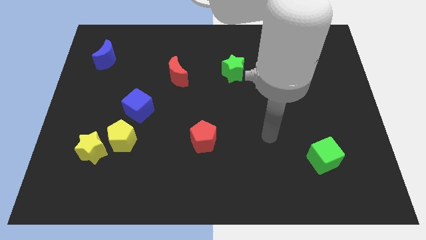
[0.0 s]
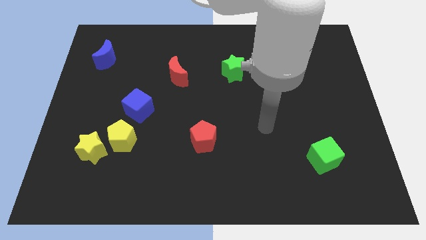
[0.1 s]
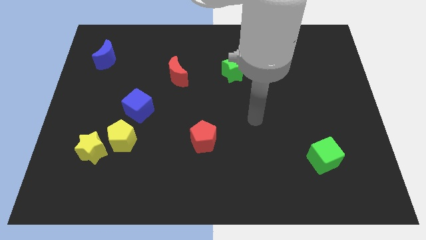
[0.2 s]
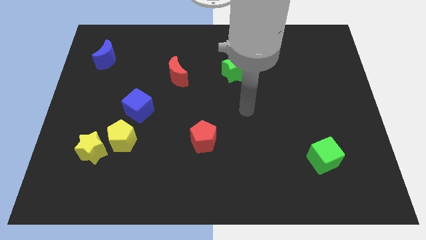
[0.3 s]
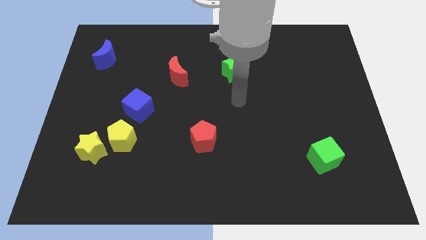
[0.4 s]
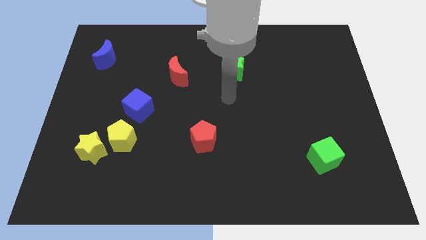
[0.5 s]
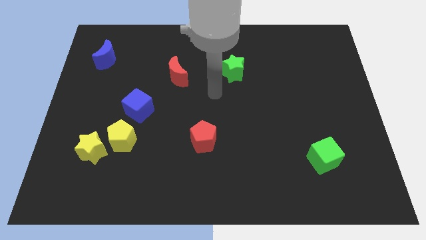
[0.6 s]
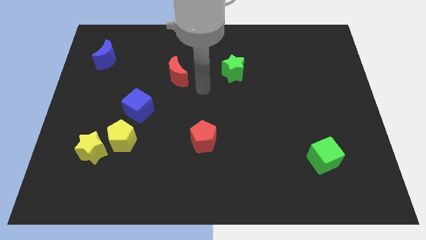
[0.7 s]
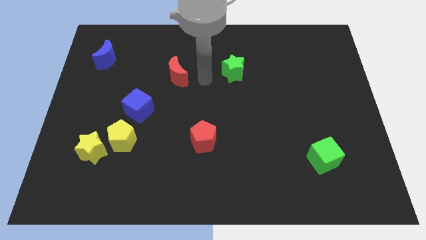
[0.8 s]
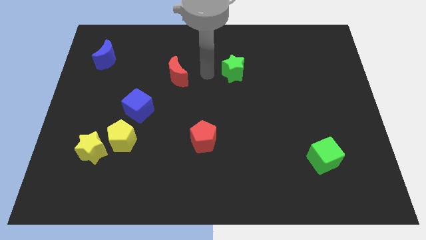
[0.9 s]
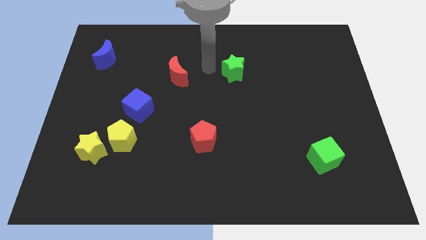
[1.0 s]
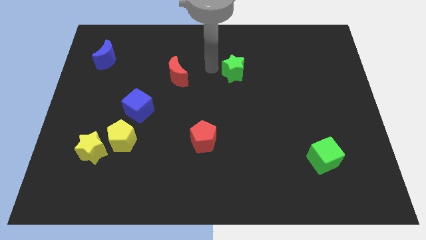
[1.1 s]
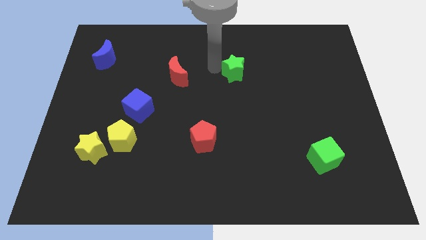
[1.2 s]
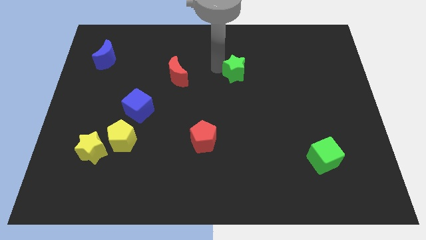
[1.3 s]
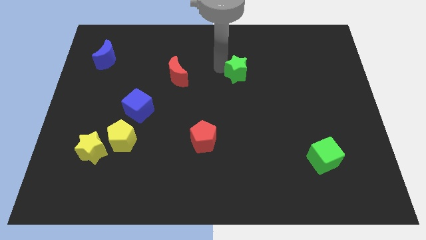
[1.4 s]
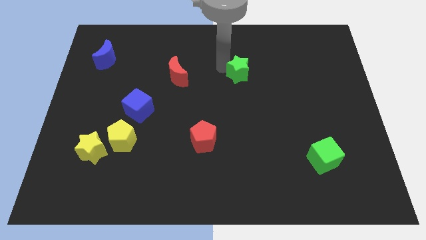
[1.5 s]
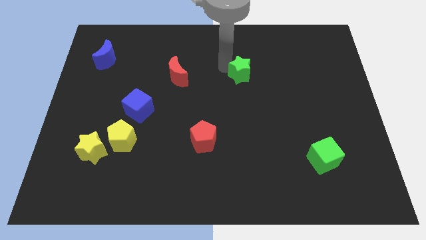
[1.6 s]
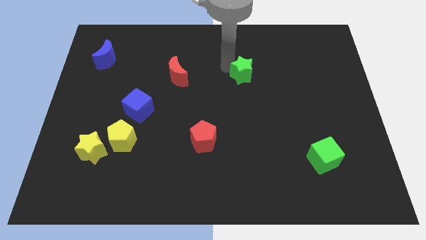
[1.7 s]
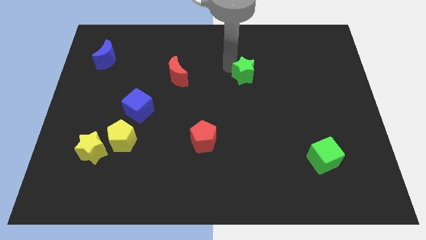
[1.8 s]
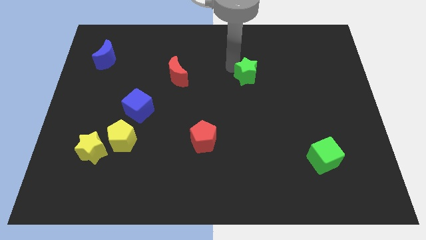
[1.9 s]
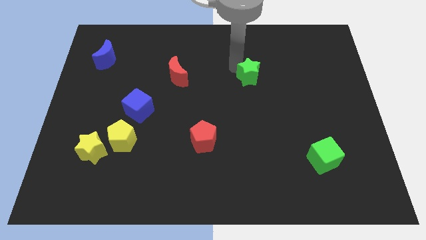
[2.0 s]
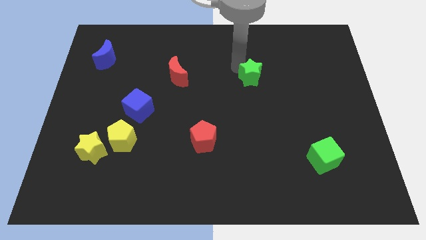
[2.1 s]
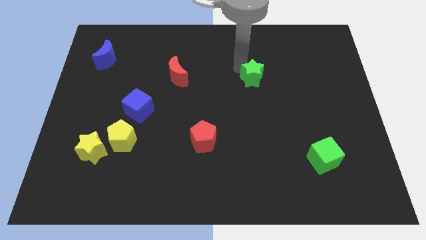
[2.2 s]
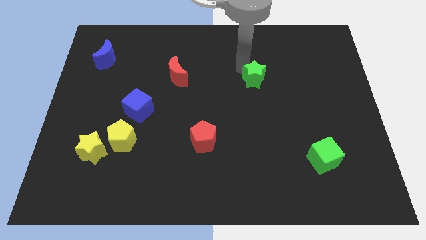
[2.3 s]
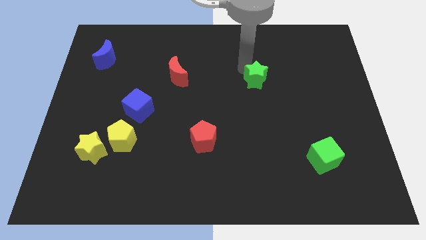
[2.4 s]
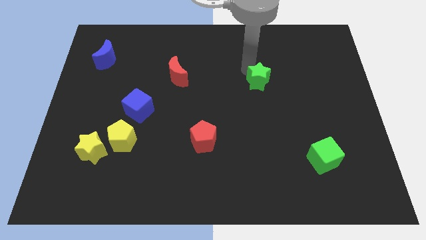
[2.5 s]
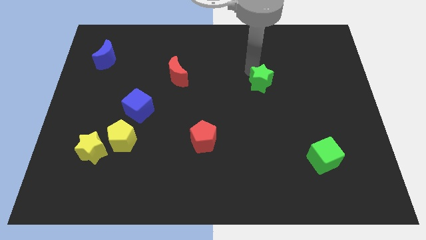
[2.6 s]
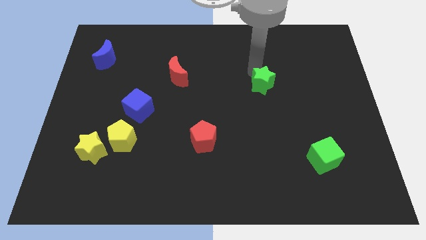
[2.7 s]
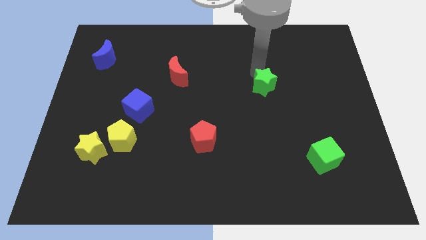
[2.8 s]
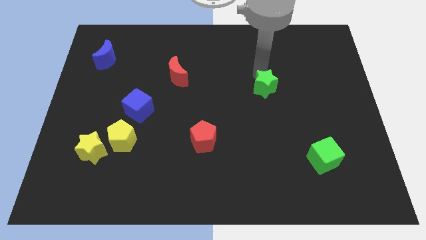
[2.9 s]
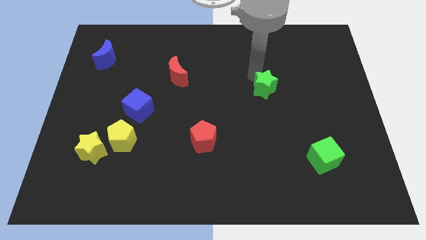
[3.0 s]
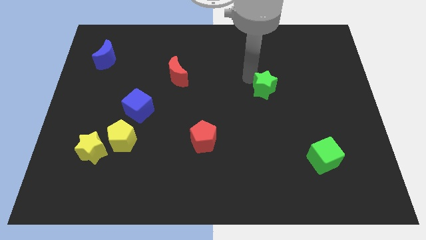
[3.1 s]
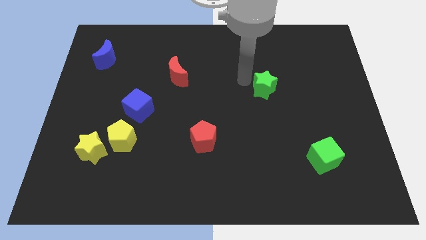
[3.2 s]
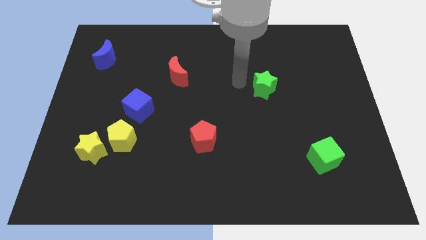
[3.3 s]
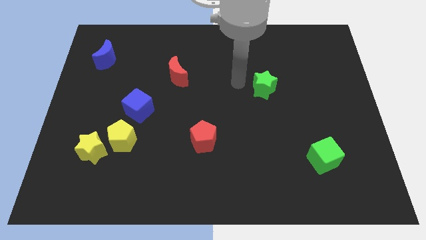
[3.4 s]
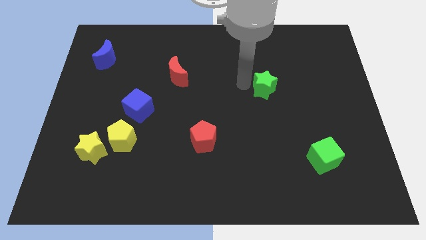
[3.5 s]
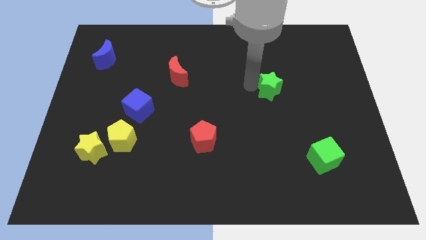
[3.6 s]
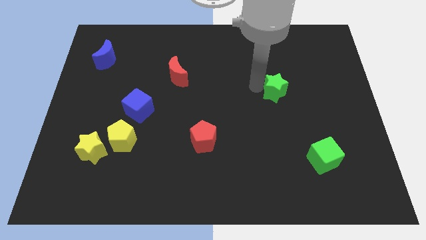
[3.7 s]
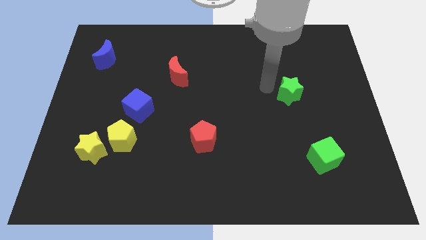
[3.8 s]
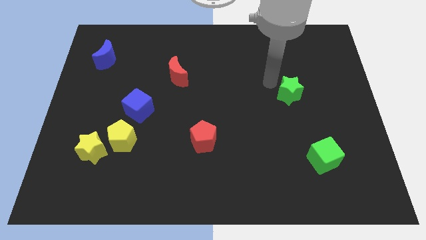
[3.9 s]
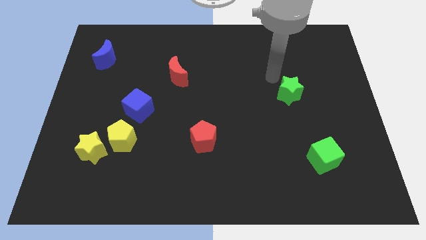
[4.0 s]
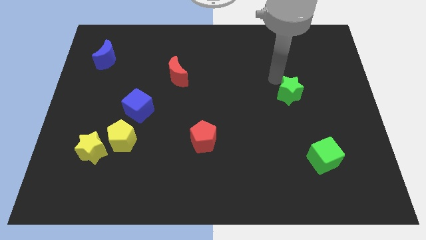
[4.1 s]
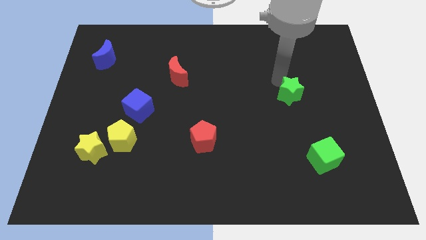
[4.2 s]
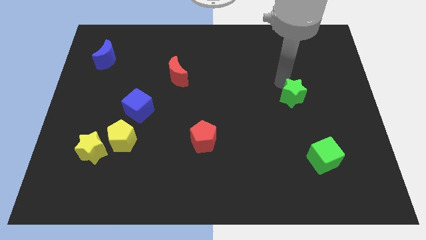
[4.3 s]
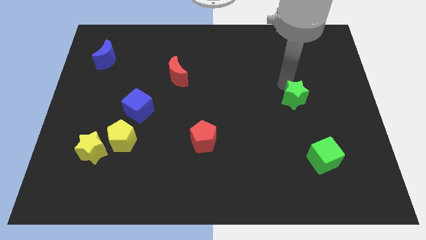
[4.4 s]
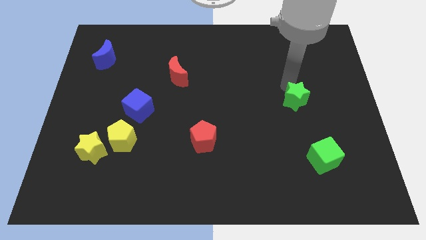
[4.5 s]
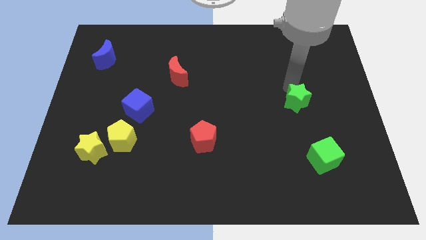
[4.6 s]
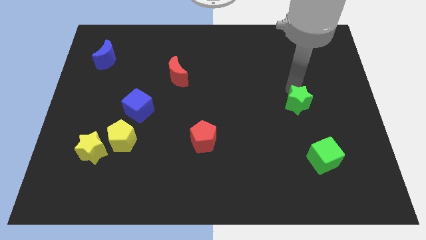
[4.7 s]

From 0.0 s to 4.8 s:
put the green star to the top side of the green cube

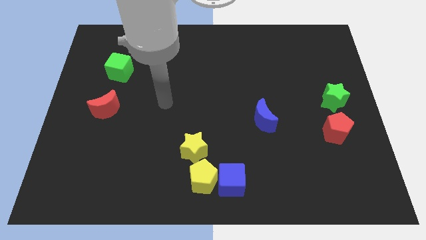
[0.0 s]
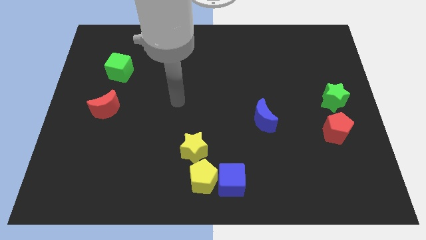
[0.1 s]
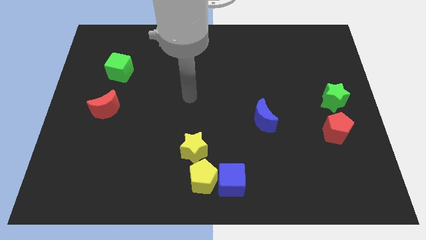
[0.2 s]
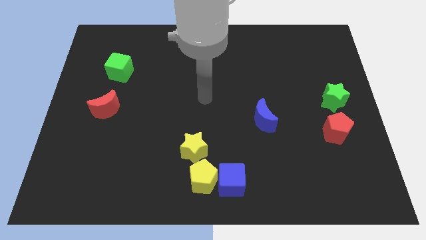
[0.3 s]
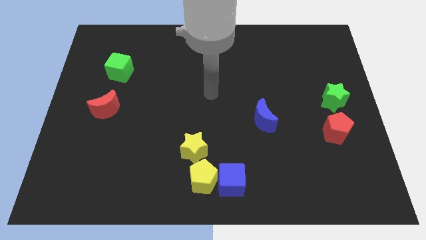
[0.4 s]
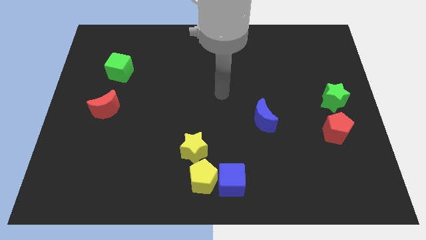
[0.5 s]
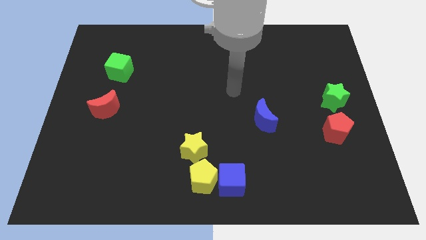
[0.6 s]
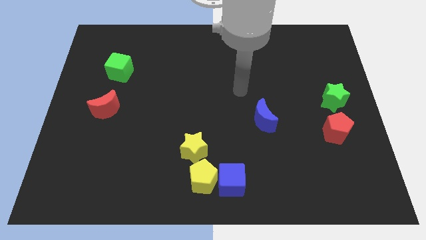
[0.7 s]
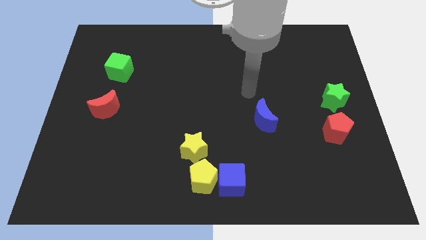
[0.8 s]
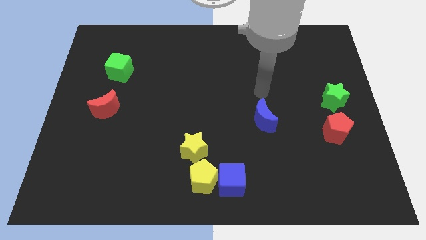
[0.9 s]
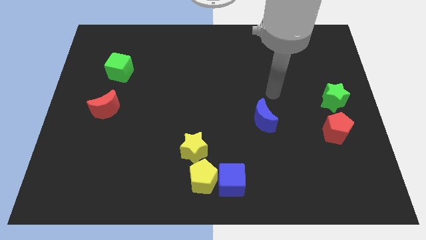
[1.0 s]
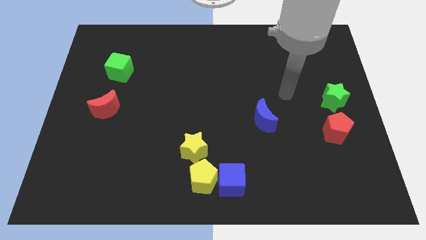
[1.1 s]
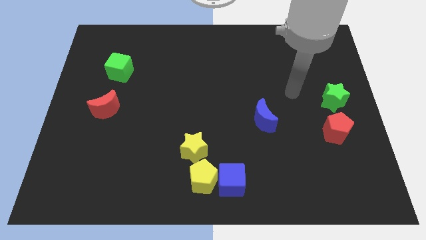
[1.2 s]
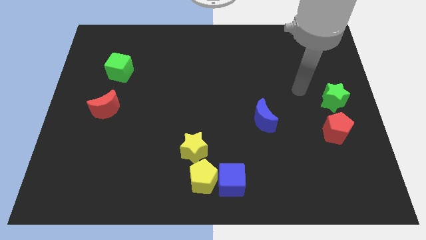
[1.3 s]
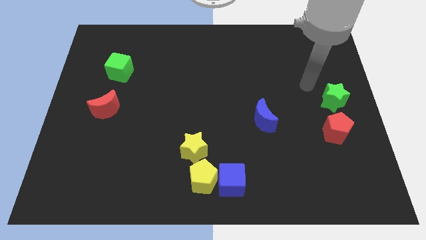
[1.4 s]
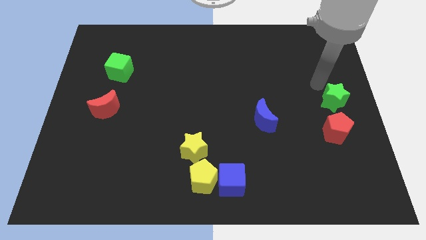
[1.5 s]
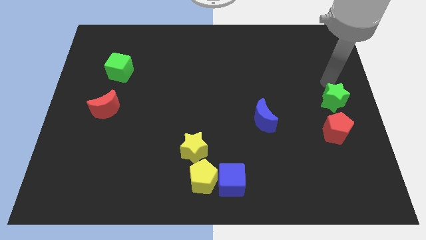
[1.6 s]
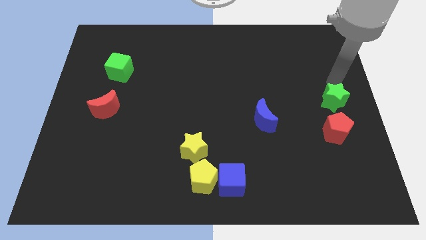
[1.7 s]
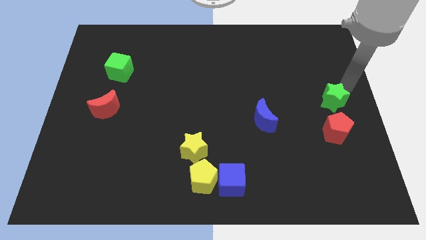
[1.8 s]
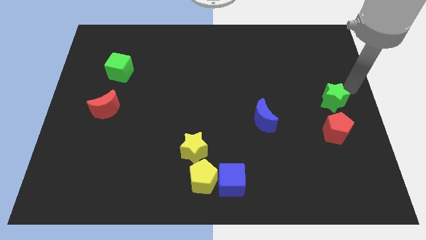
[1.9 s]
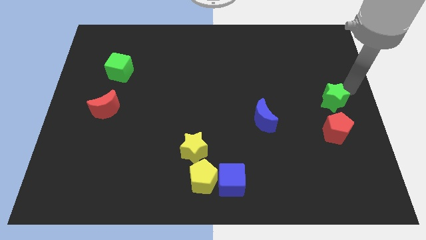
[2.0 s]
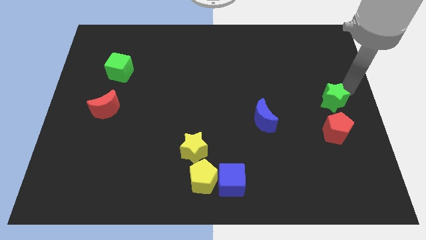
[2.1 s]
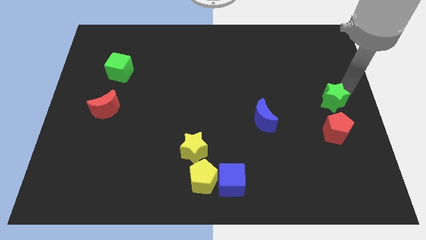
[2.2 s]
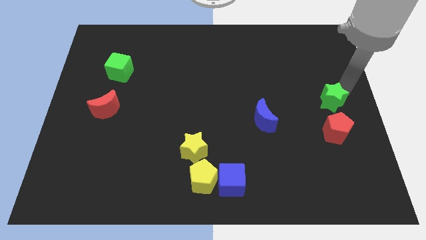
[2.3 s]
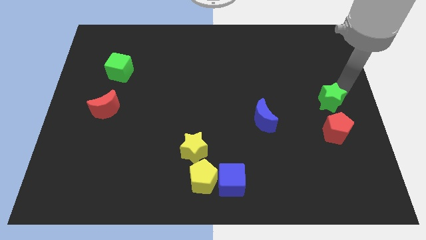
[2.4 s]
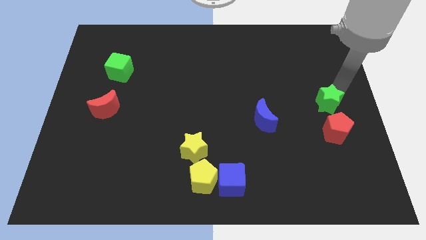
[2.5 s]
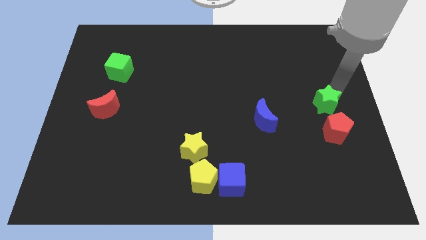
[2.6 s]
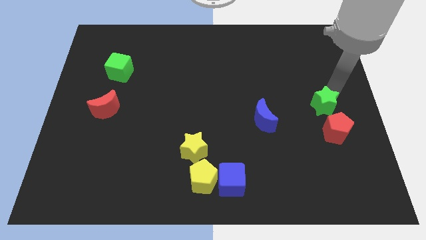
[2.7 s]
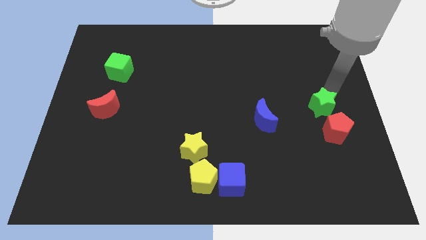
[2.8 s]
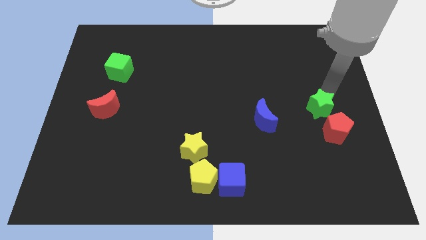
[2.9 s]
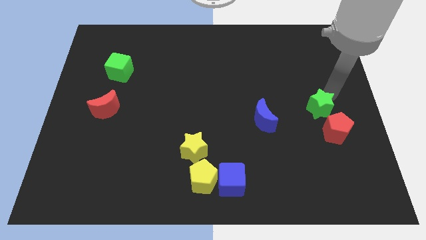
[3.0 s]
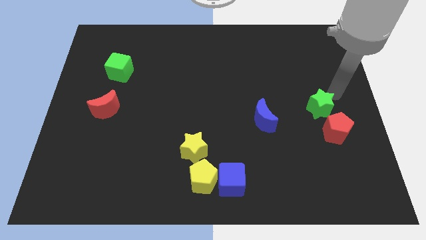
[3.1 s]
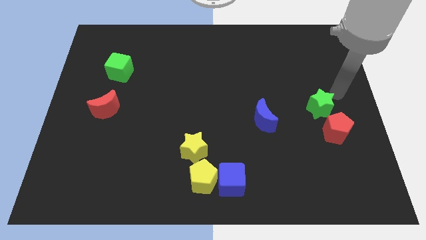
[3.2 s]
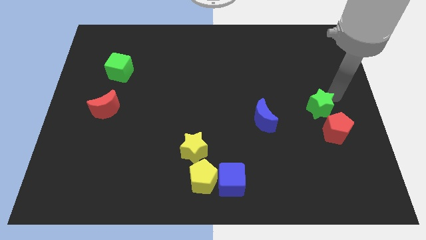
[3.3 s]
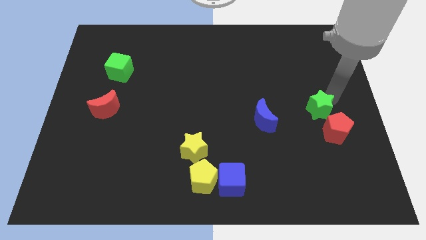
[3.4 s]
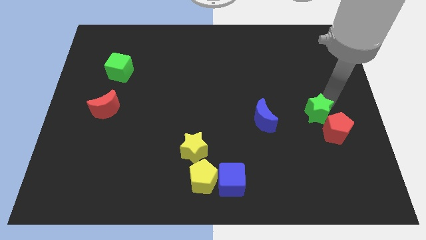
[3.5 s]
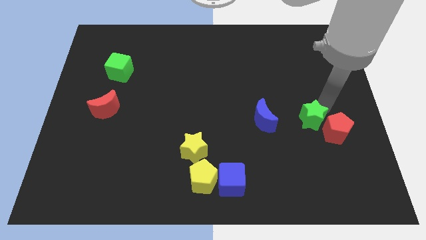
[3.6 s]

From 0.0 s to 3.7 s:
push the green star to the left side of the red pentagon
